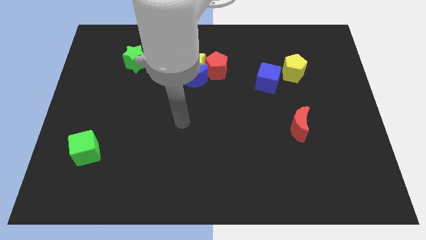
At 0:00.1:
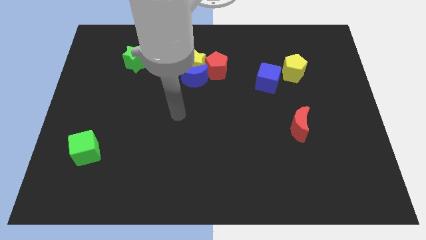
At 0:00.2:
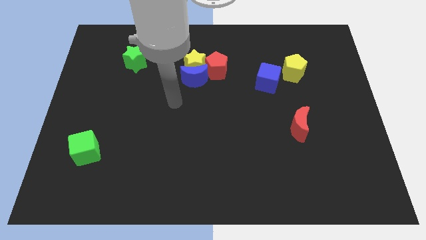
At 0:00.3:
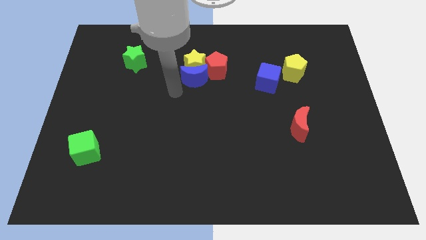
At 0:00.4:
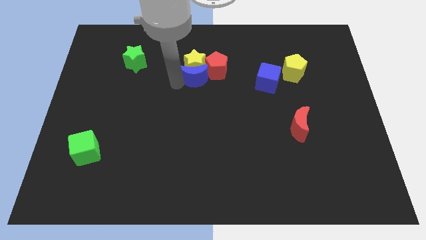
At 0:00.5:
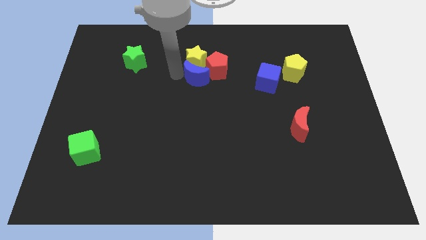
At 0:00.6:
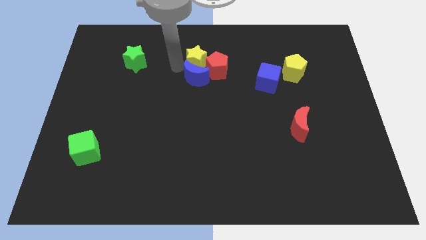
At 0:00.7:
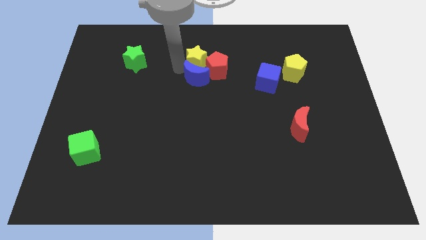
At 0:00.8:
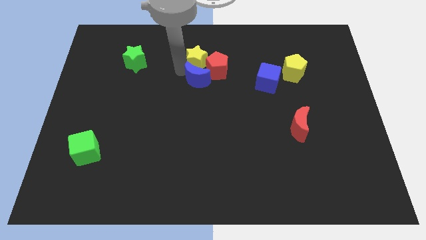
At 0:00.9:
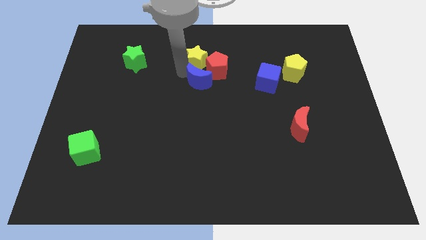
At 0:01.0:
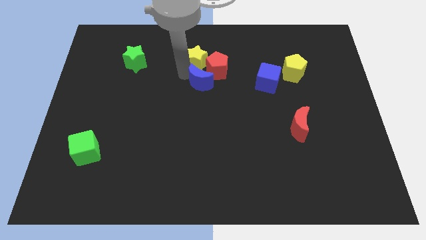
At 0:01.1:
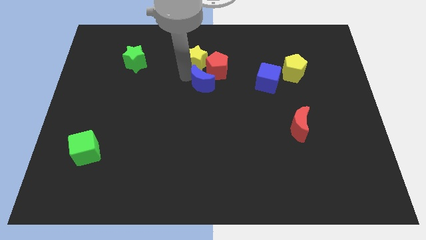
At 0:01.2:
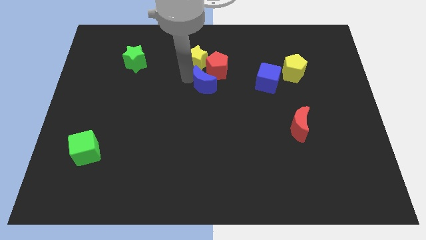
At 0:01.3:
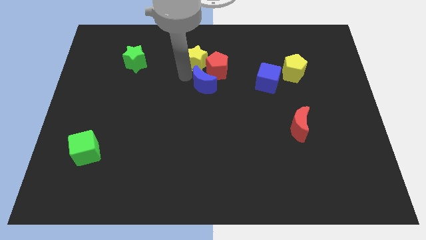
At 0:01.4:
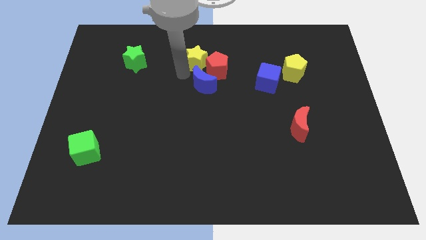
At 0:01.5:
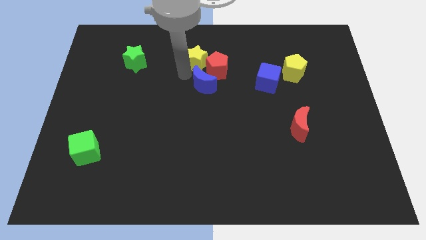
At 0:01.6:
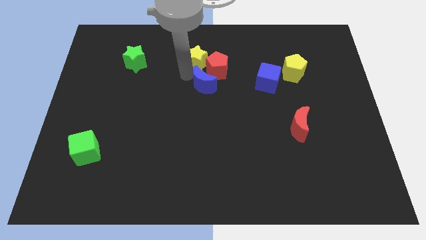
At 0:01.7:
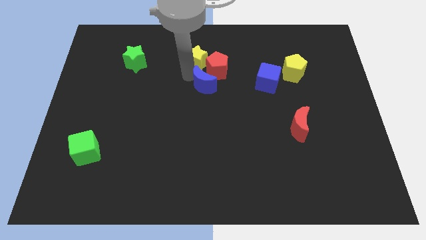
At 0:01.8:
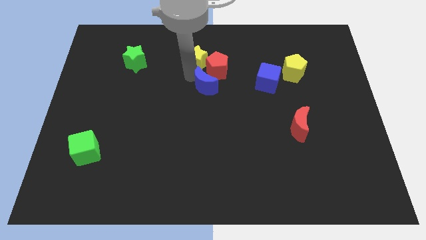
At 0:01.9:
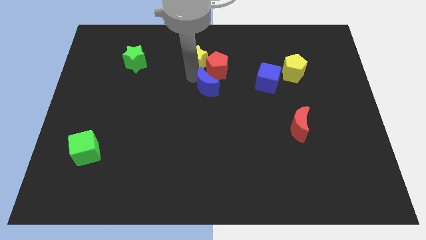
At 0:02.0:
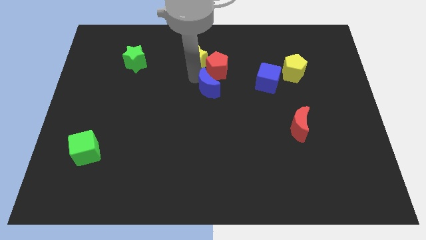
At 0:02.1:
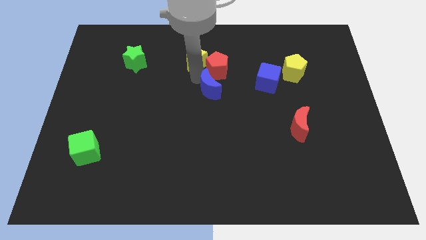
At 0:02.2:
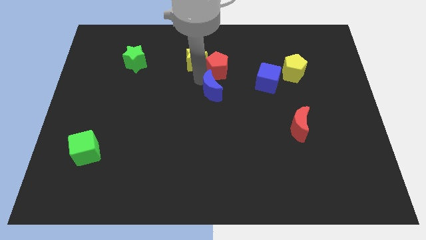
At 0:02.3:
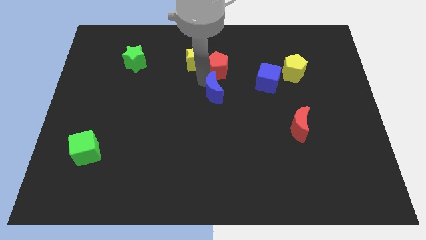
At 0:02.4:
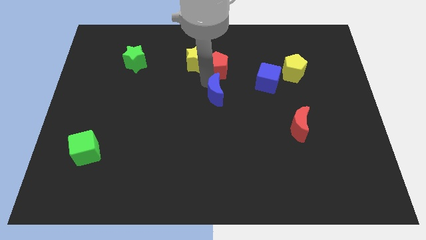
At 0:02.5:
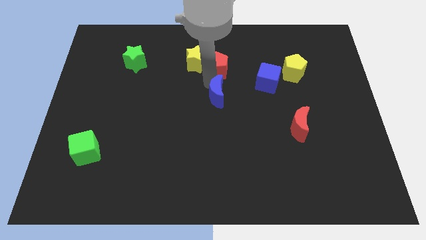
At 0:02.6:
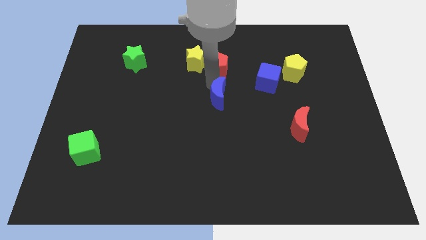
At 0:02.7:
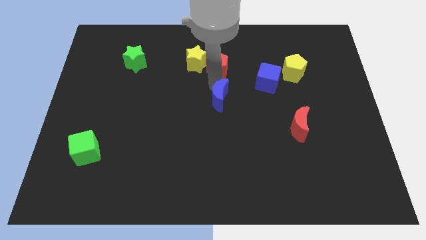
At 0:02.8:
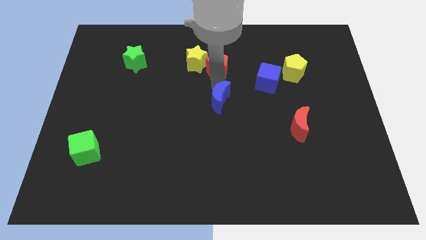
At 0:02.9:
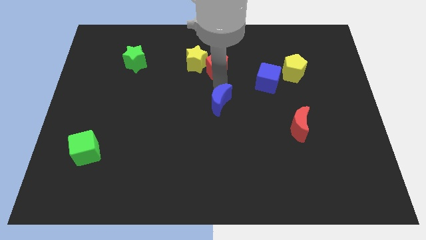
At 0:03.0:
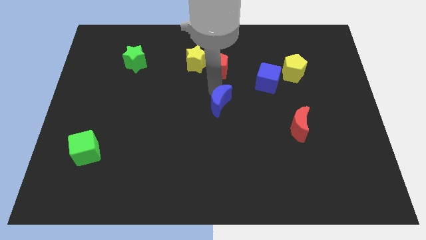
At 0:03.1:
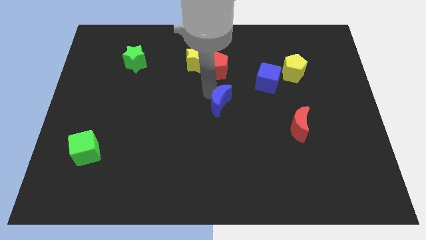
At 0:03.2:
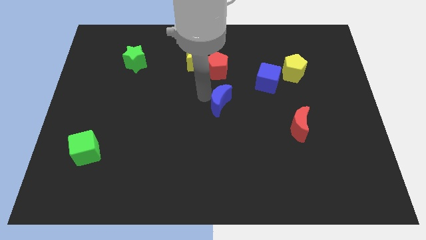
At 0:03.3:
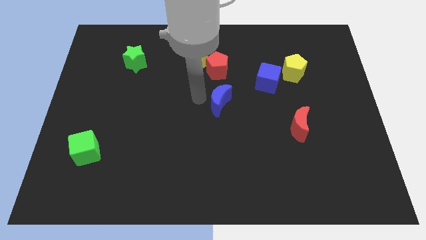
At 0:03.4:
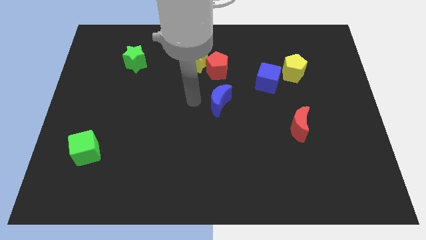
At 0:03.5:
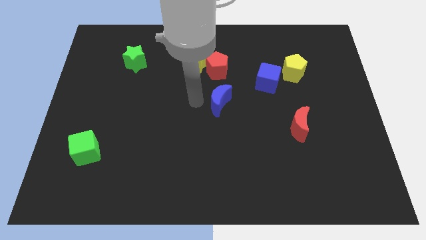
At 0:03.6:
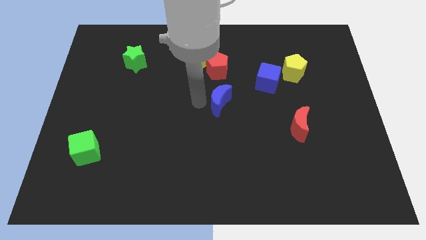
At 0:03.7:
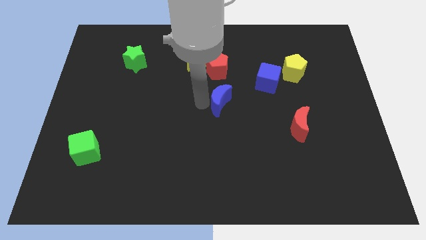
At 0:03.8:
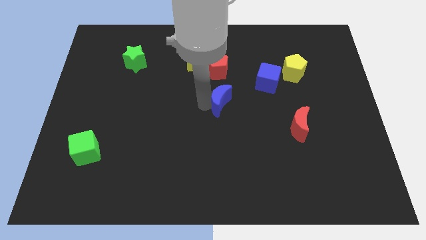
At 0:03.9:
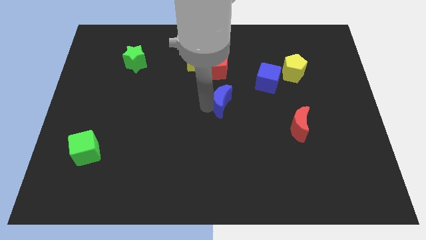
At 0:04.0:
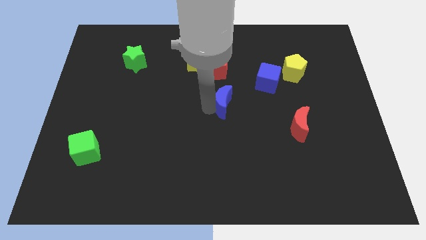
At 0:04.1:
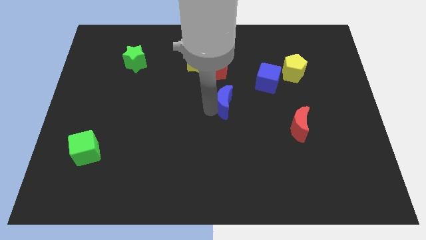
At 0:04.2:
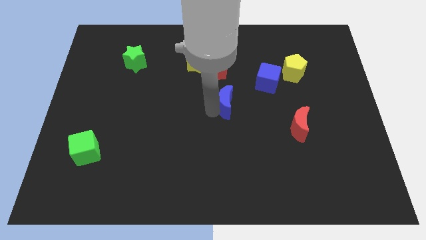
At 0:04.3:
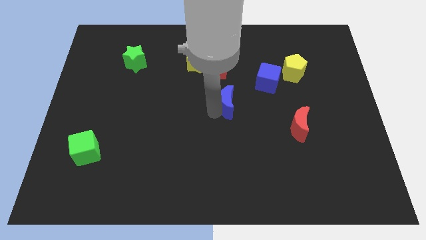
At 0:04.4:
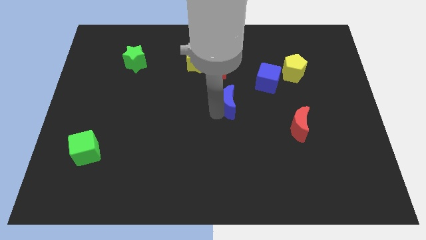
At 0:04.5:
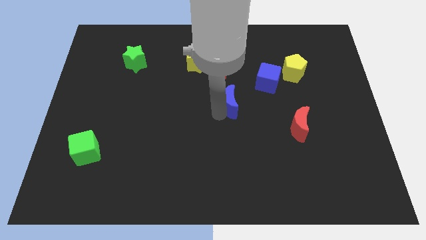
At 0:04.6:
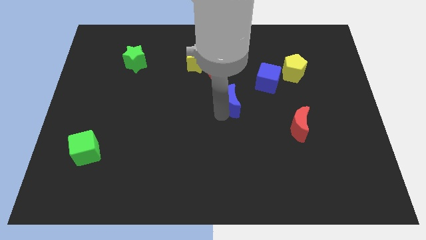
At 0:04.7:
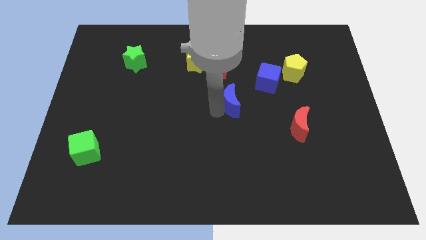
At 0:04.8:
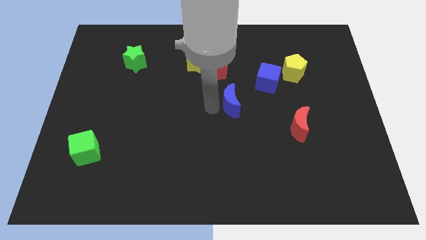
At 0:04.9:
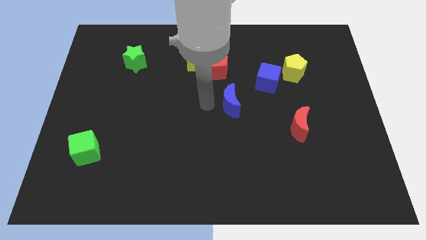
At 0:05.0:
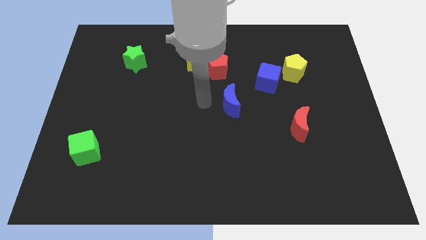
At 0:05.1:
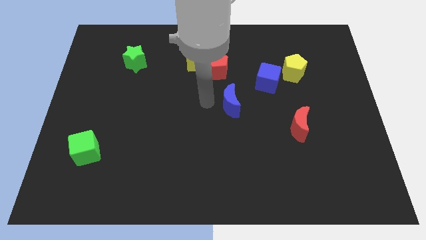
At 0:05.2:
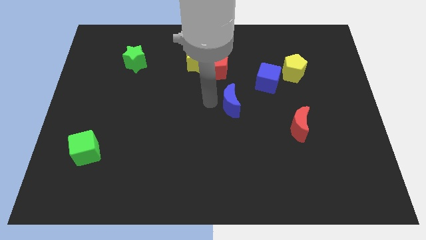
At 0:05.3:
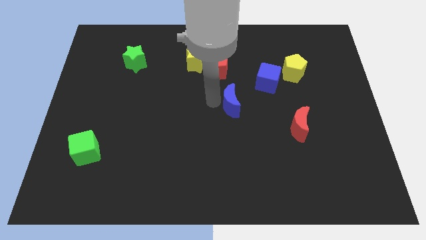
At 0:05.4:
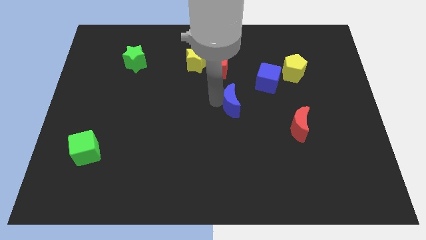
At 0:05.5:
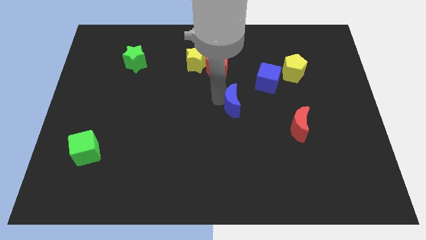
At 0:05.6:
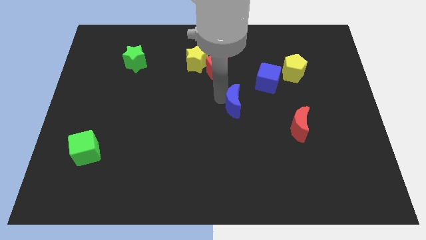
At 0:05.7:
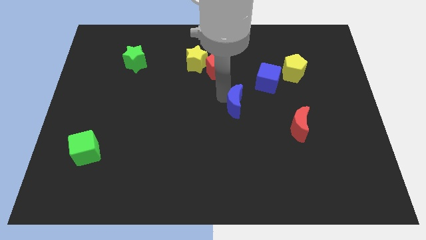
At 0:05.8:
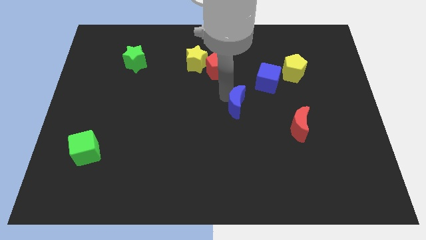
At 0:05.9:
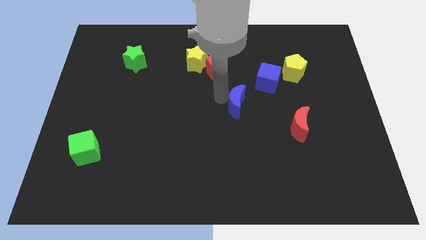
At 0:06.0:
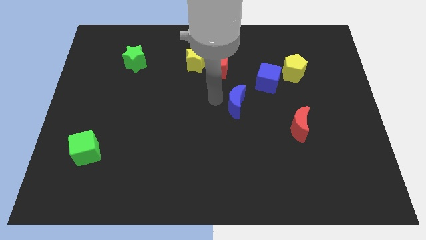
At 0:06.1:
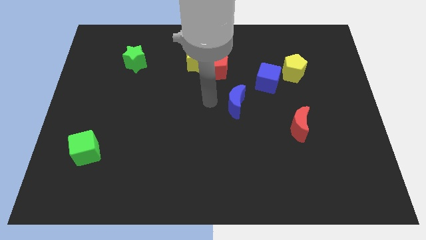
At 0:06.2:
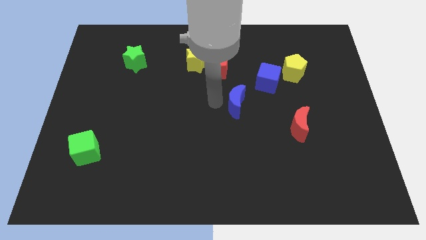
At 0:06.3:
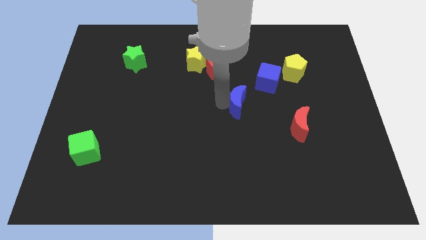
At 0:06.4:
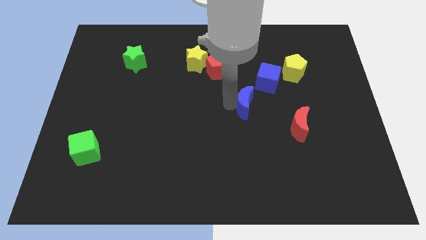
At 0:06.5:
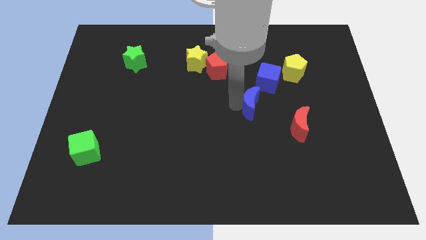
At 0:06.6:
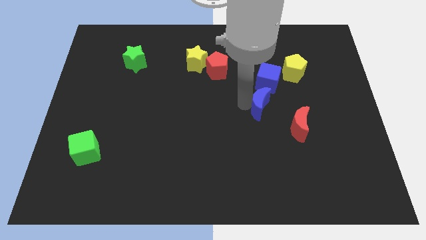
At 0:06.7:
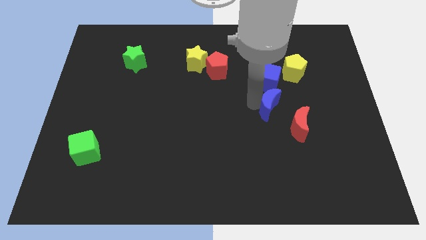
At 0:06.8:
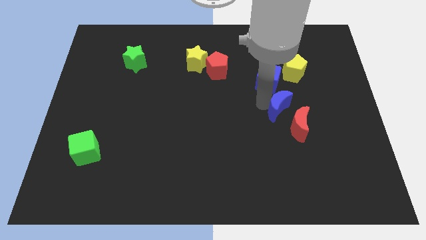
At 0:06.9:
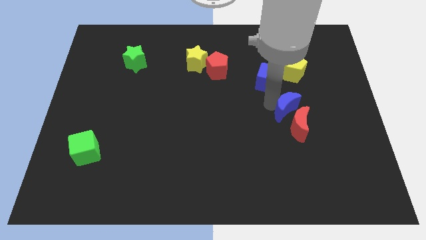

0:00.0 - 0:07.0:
put the blue moon towards the red moon

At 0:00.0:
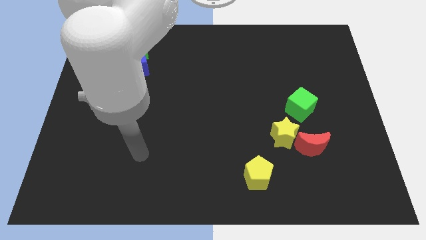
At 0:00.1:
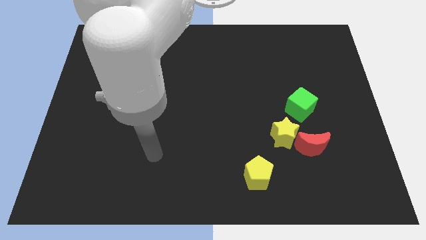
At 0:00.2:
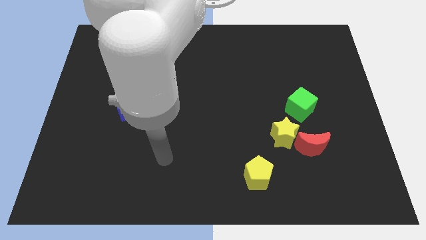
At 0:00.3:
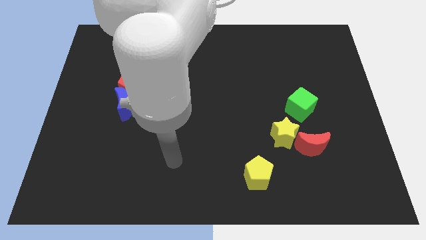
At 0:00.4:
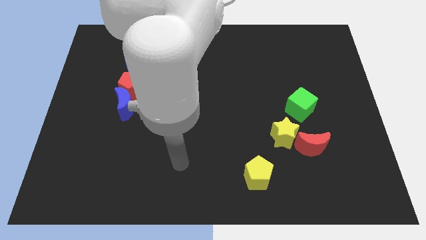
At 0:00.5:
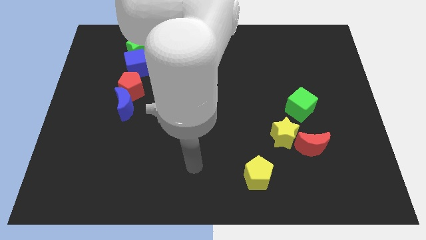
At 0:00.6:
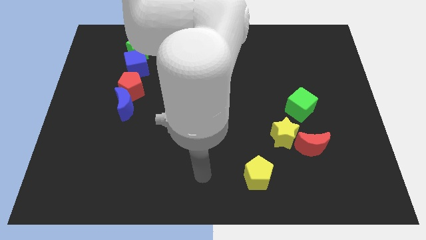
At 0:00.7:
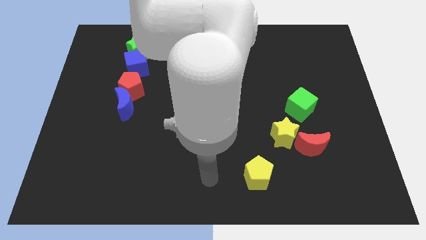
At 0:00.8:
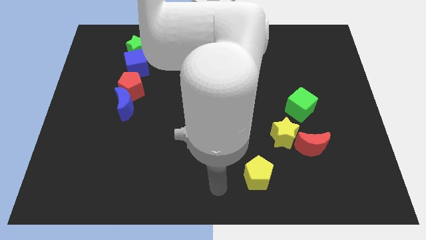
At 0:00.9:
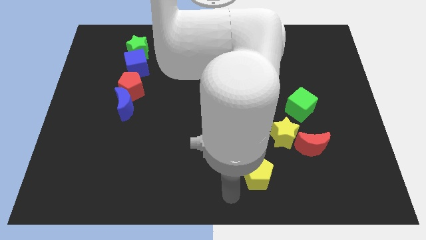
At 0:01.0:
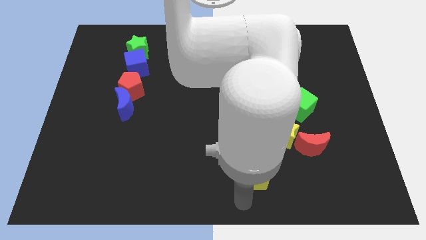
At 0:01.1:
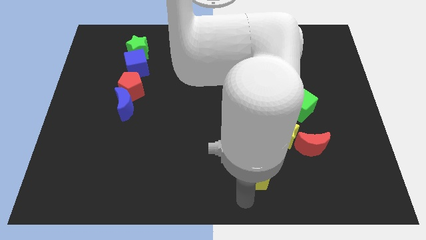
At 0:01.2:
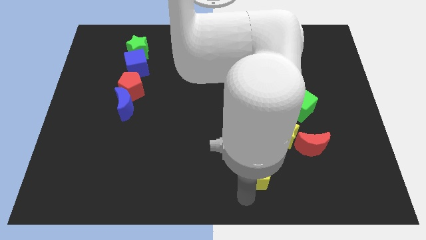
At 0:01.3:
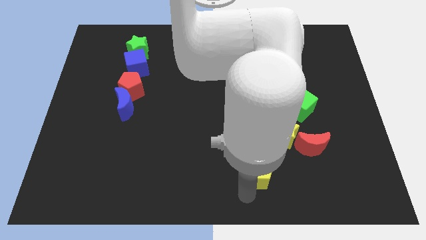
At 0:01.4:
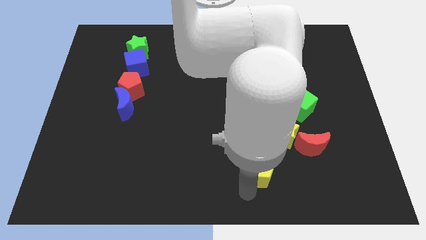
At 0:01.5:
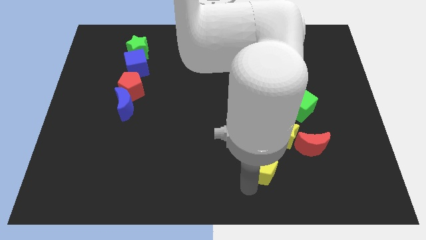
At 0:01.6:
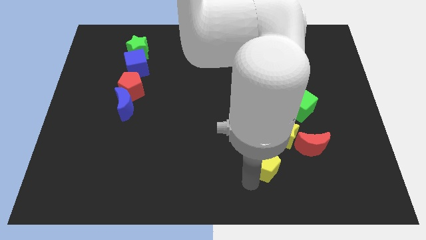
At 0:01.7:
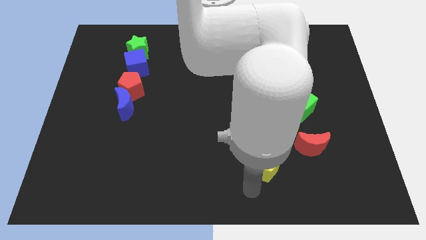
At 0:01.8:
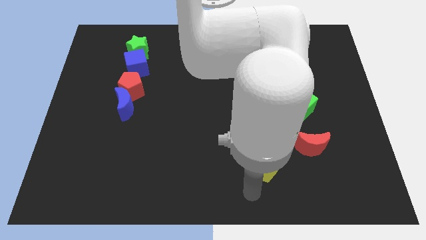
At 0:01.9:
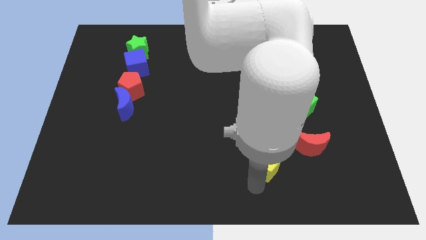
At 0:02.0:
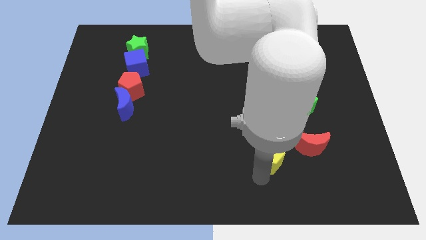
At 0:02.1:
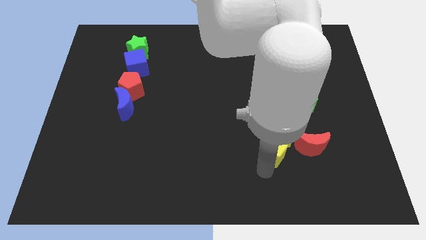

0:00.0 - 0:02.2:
push the yellow pentagon towards the yellow star
